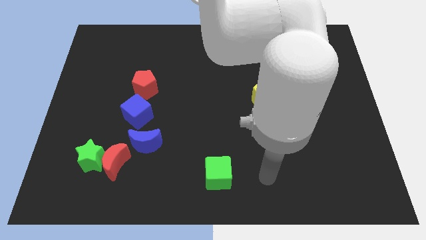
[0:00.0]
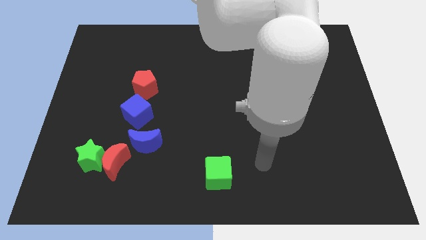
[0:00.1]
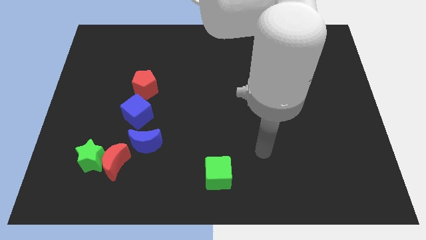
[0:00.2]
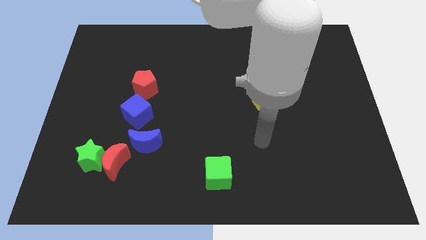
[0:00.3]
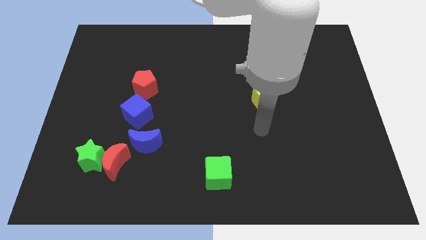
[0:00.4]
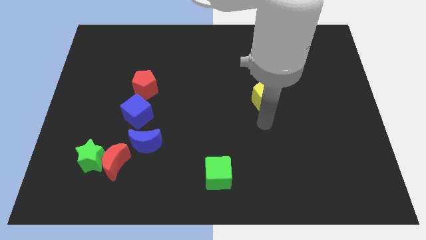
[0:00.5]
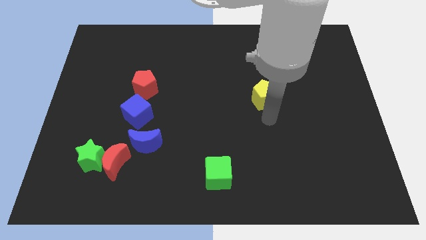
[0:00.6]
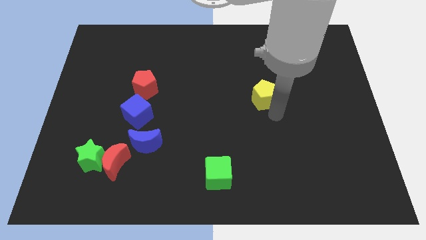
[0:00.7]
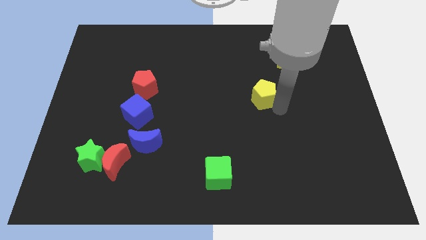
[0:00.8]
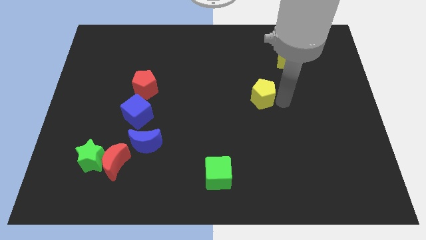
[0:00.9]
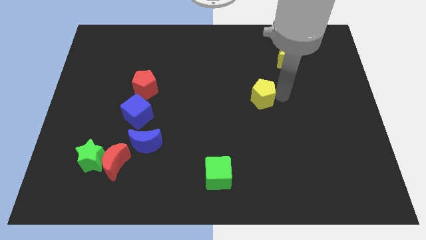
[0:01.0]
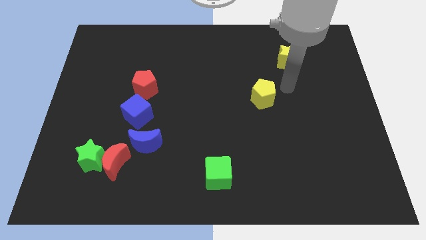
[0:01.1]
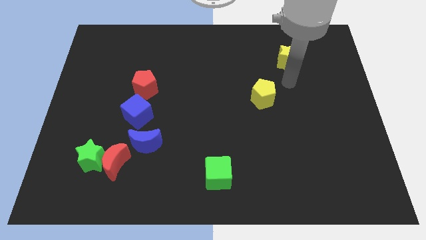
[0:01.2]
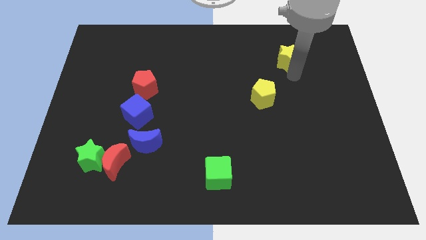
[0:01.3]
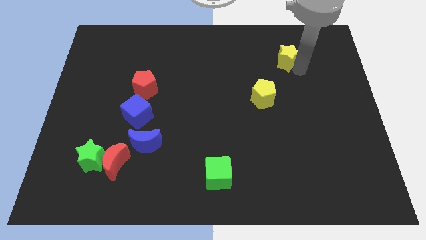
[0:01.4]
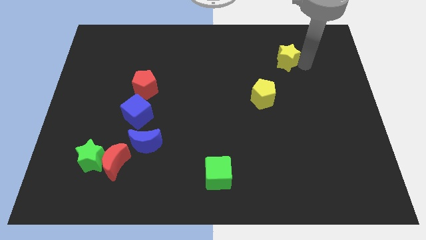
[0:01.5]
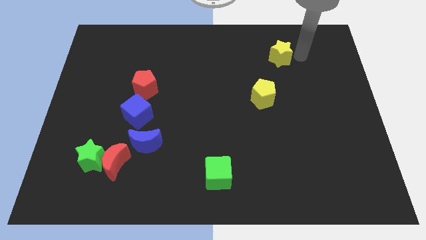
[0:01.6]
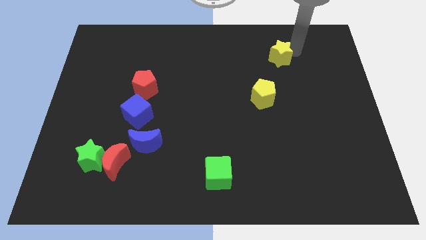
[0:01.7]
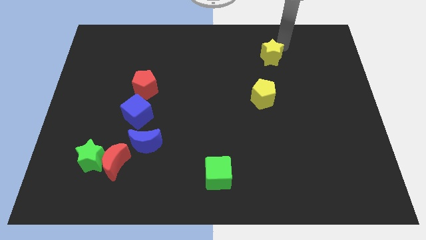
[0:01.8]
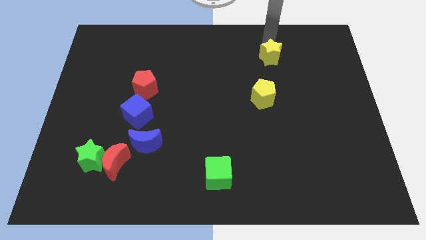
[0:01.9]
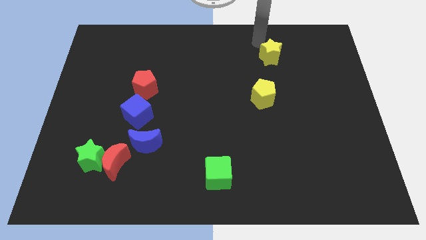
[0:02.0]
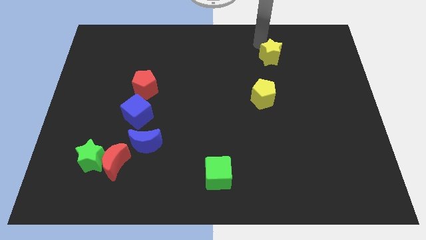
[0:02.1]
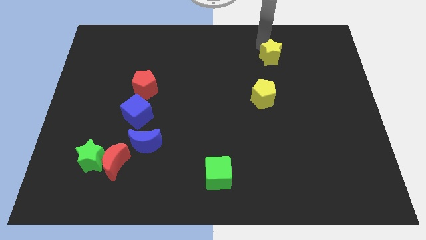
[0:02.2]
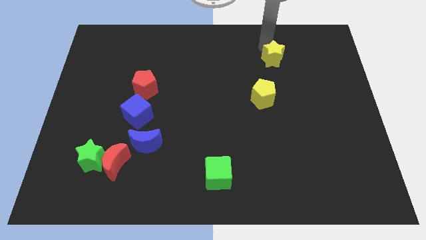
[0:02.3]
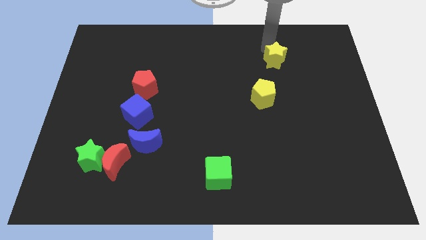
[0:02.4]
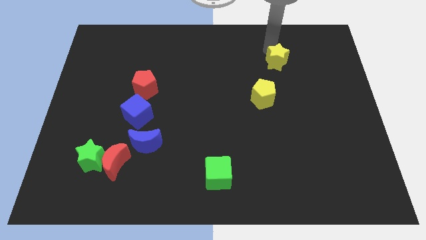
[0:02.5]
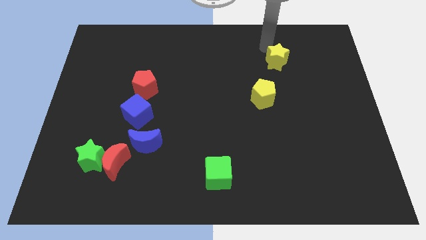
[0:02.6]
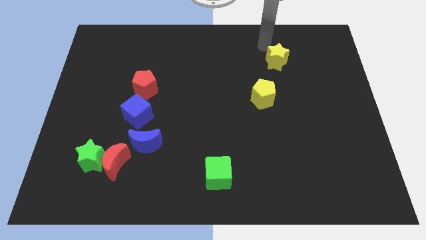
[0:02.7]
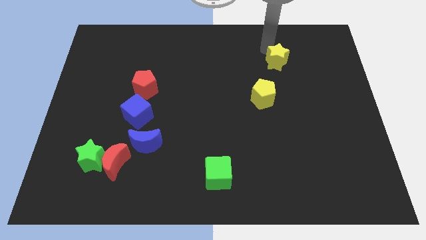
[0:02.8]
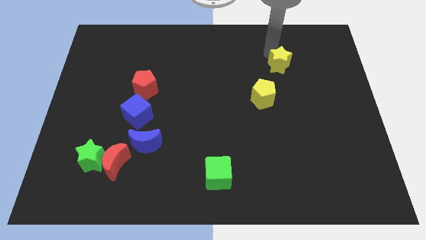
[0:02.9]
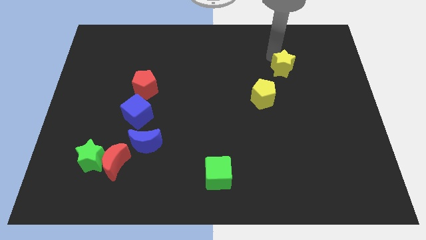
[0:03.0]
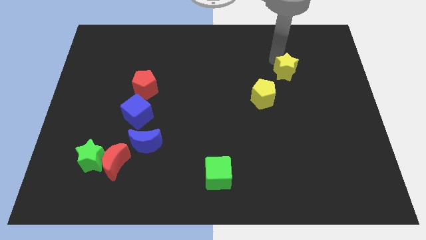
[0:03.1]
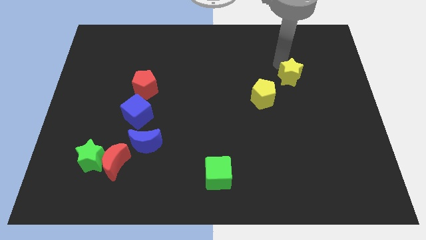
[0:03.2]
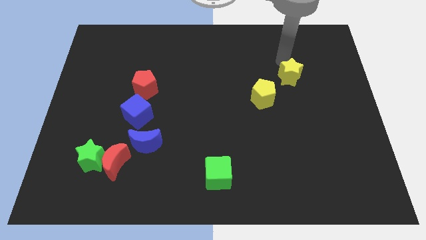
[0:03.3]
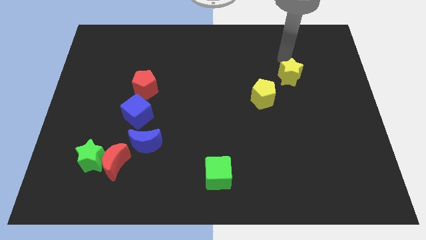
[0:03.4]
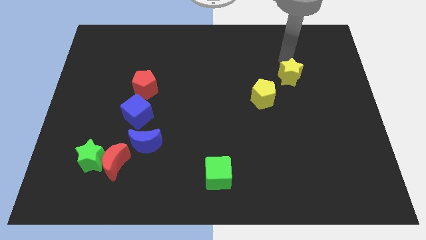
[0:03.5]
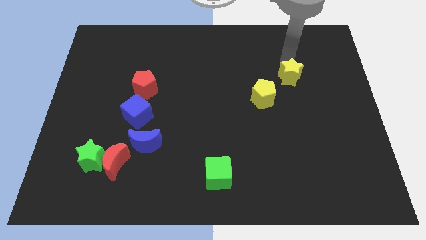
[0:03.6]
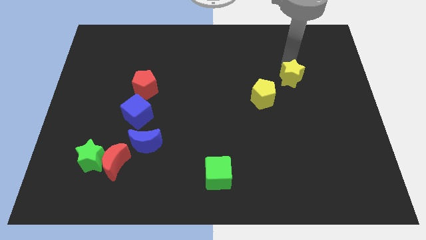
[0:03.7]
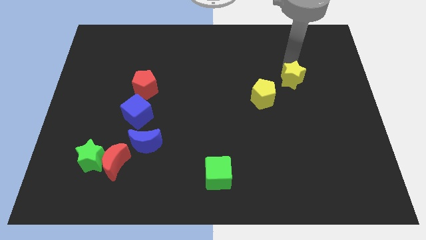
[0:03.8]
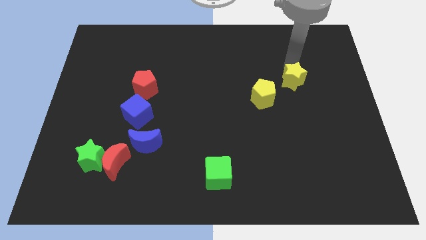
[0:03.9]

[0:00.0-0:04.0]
slightly move the yellow star downwards

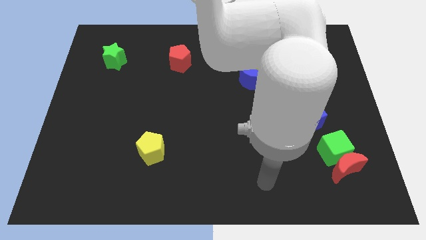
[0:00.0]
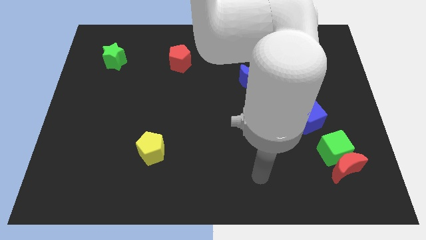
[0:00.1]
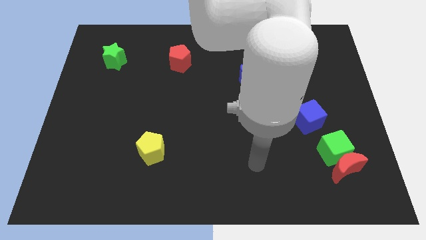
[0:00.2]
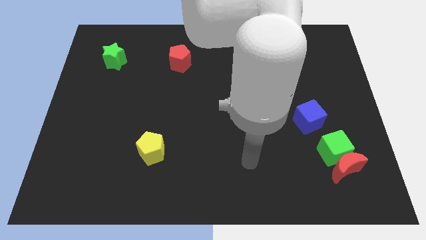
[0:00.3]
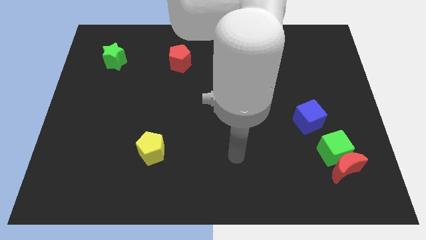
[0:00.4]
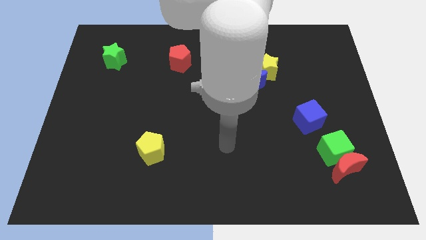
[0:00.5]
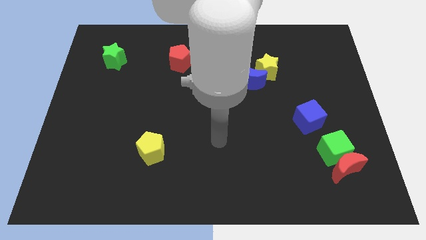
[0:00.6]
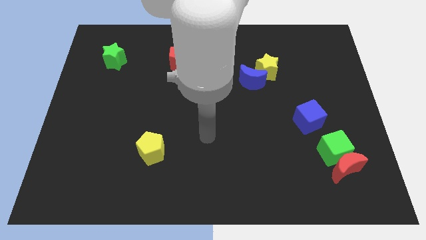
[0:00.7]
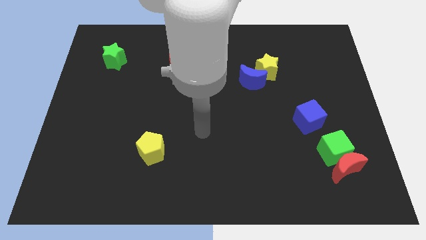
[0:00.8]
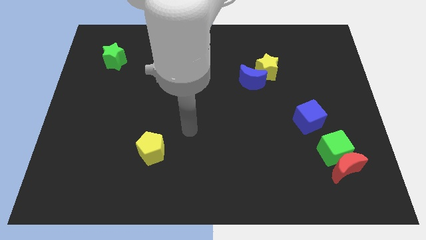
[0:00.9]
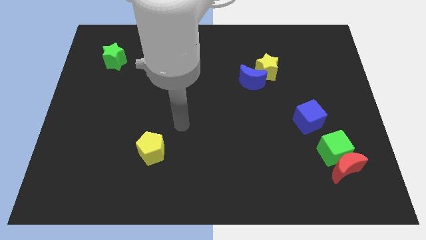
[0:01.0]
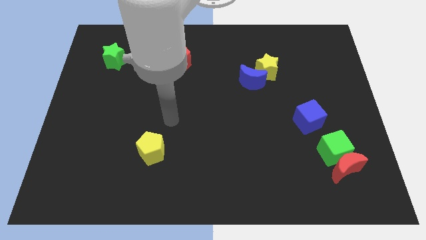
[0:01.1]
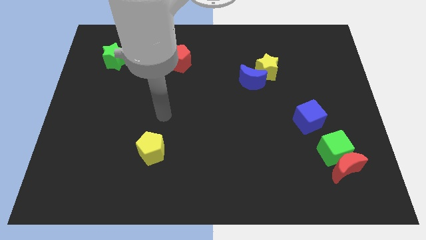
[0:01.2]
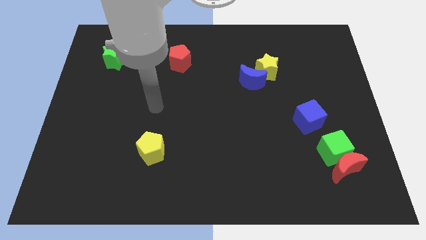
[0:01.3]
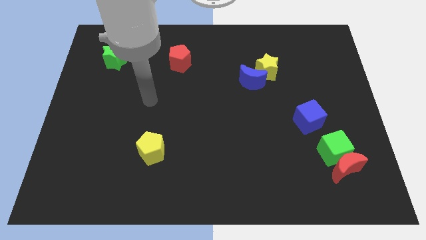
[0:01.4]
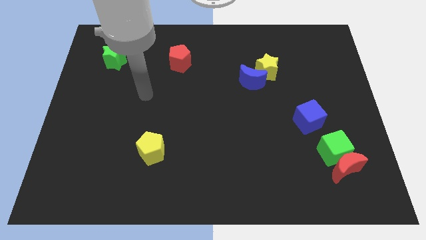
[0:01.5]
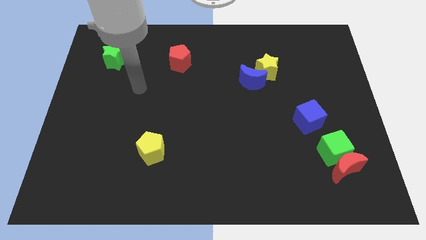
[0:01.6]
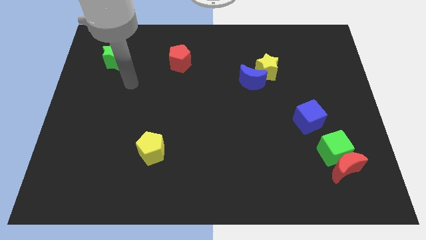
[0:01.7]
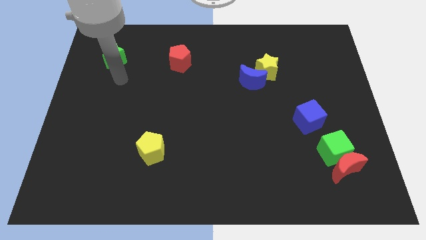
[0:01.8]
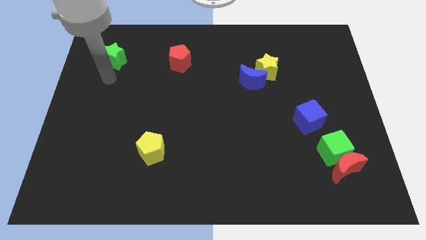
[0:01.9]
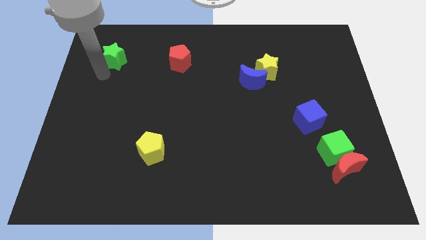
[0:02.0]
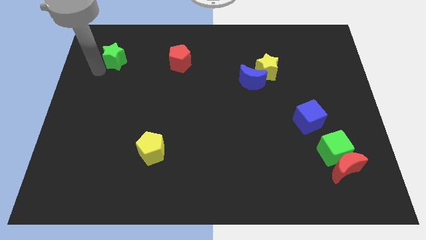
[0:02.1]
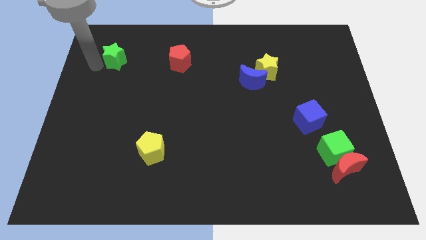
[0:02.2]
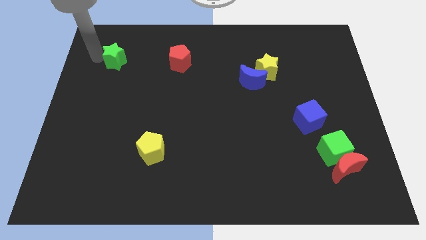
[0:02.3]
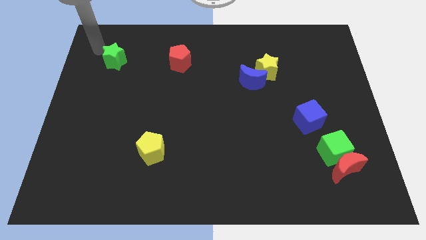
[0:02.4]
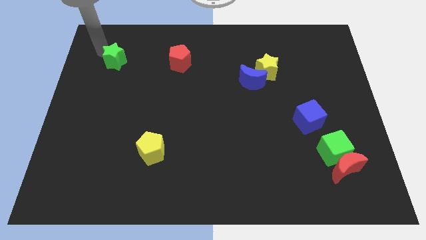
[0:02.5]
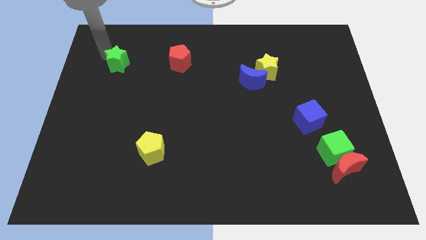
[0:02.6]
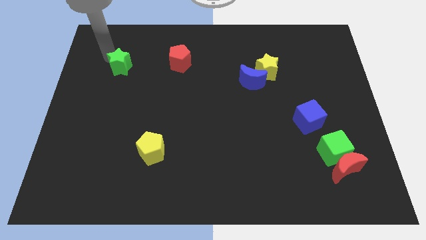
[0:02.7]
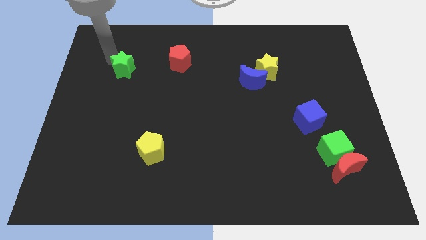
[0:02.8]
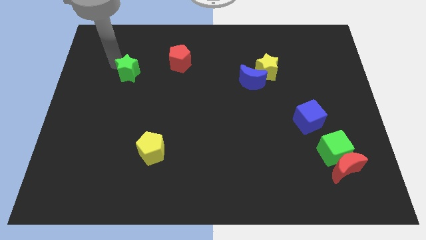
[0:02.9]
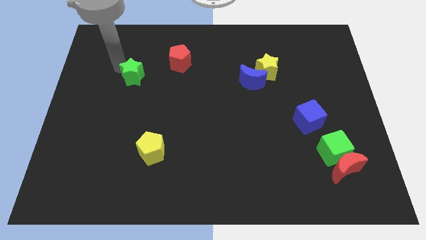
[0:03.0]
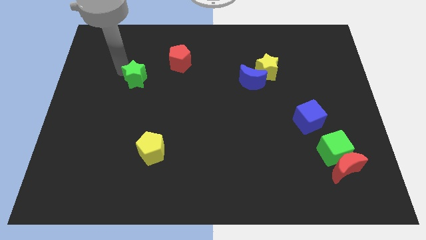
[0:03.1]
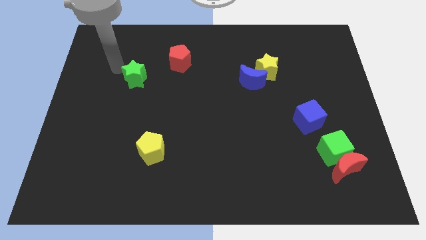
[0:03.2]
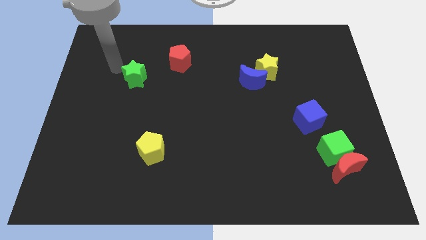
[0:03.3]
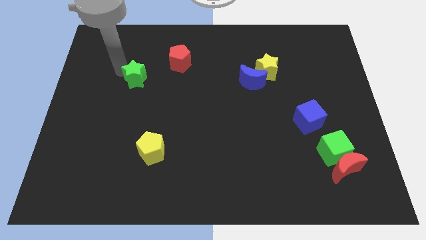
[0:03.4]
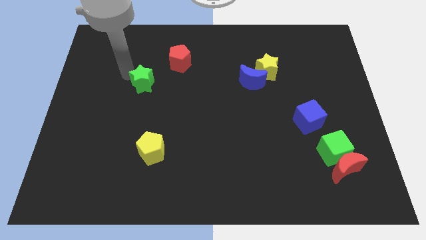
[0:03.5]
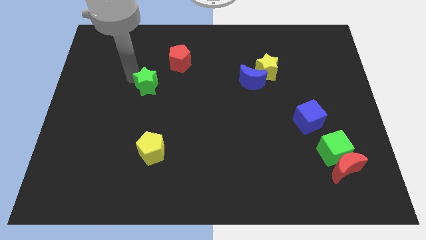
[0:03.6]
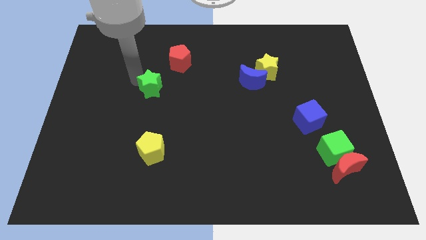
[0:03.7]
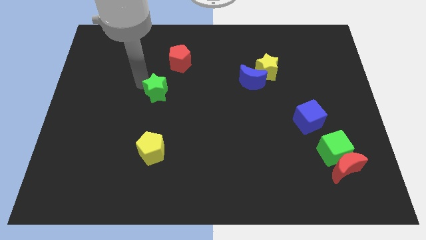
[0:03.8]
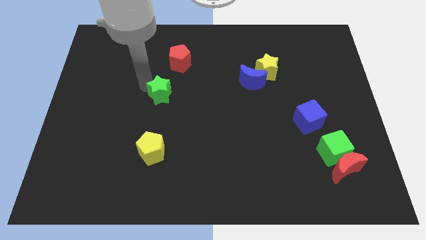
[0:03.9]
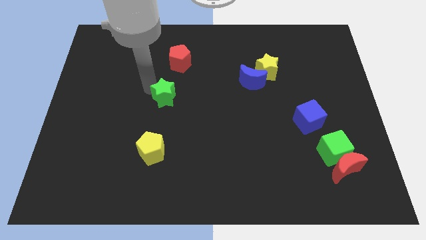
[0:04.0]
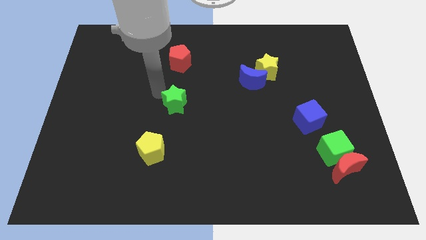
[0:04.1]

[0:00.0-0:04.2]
push the green star downwards and right
